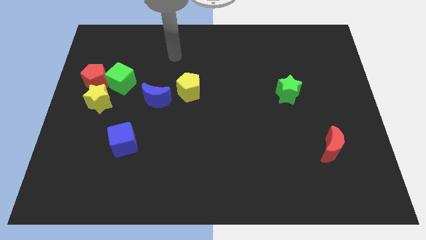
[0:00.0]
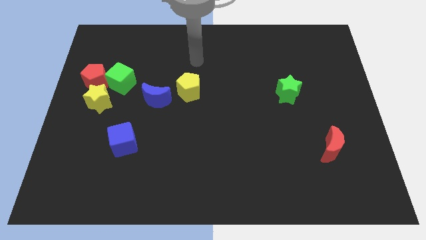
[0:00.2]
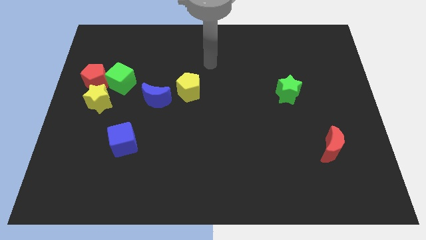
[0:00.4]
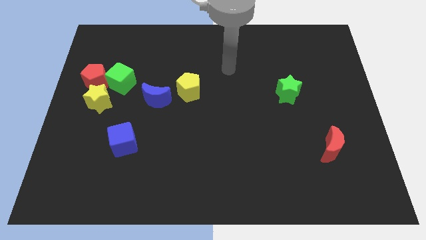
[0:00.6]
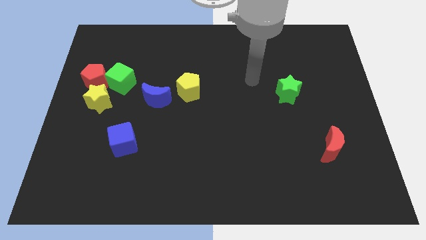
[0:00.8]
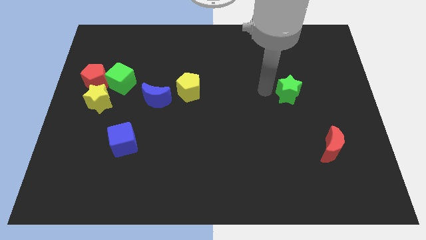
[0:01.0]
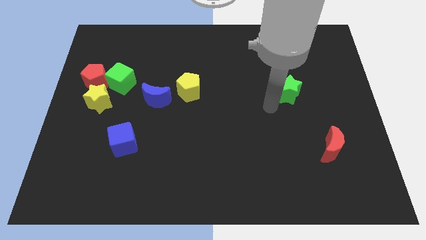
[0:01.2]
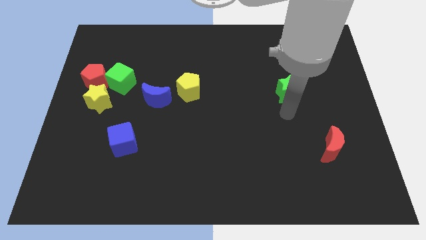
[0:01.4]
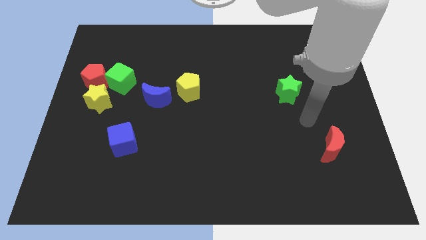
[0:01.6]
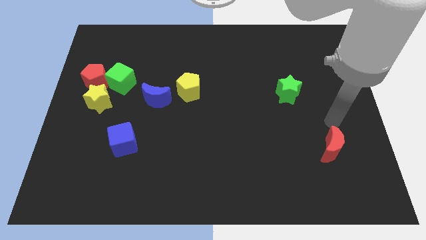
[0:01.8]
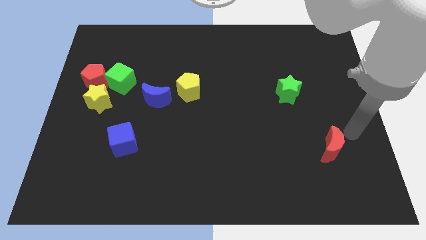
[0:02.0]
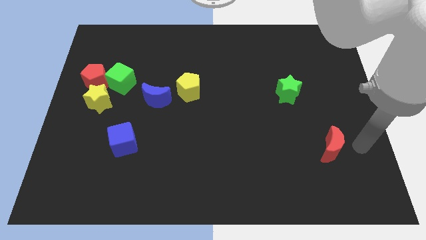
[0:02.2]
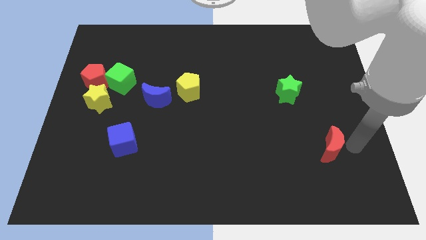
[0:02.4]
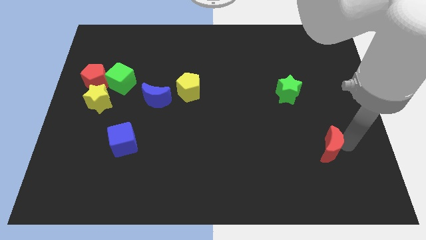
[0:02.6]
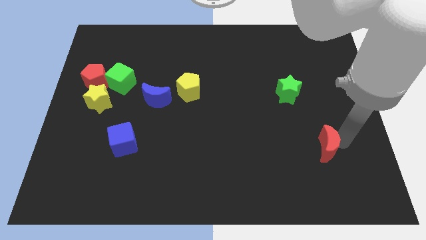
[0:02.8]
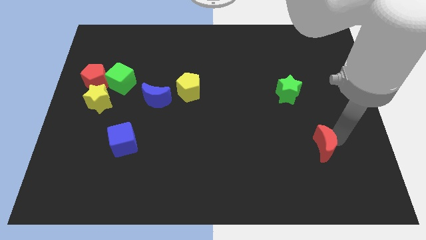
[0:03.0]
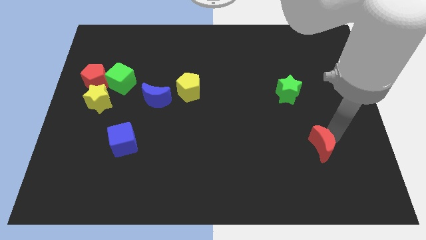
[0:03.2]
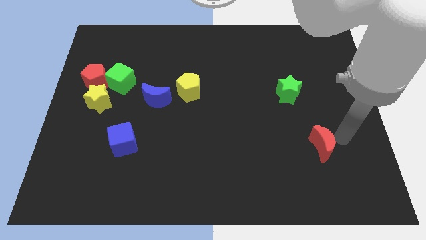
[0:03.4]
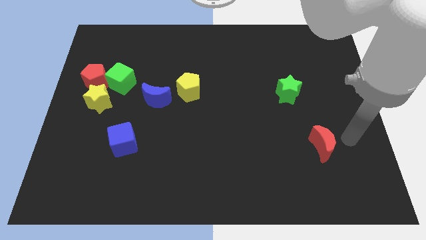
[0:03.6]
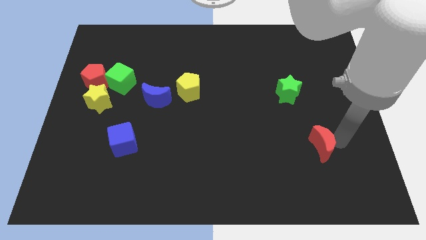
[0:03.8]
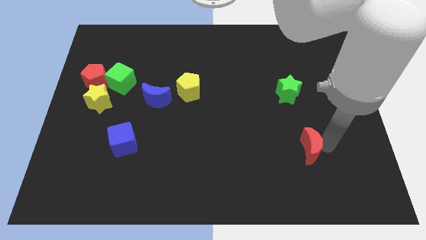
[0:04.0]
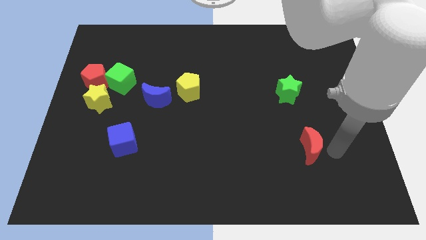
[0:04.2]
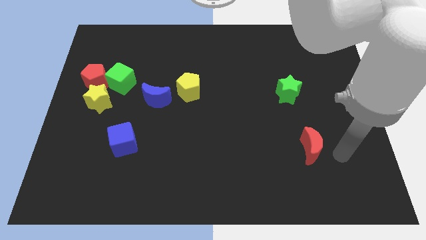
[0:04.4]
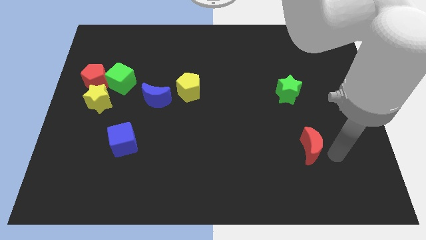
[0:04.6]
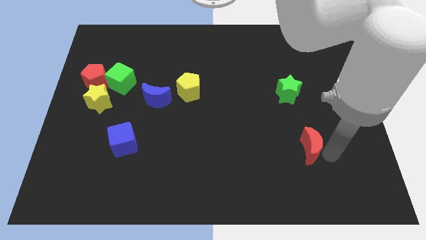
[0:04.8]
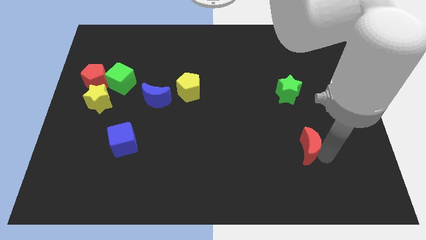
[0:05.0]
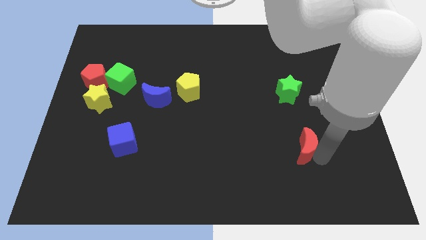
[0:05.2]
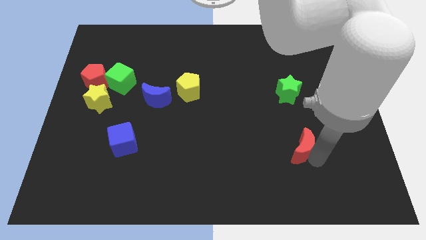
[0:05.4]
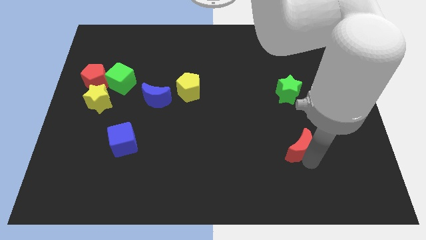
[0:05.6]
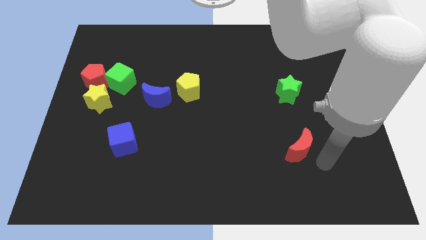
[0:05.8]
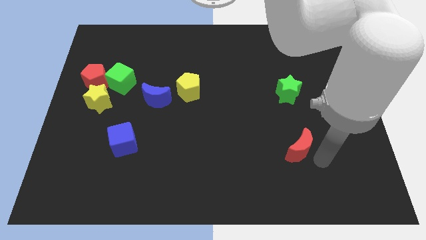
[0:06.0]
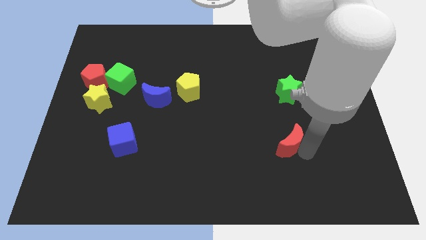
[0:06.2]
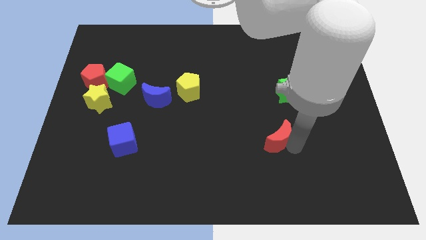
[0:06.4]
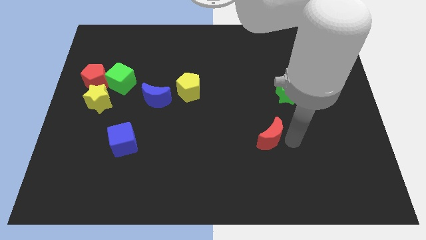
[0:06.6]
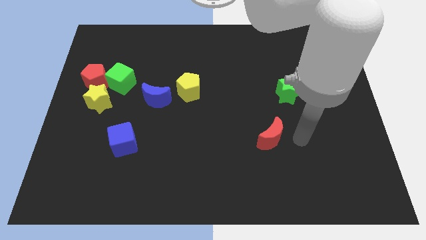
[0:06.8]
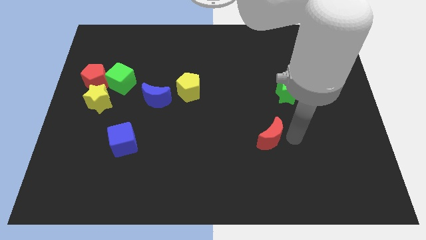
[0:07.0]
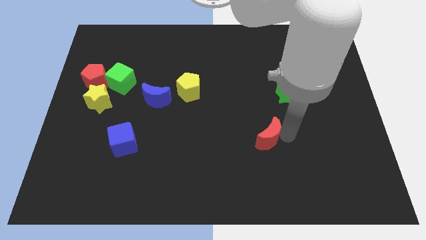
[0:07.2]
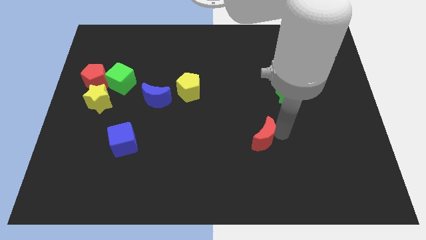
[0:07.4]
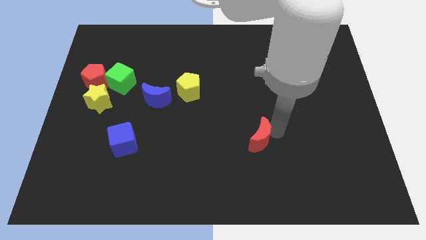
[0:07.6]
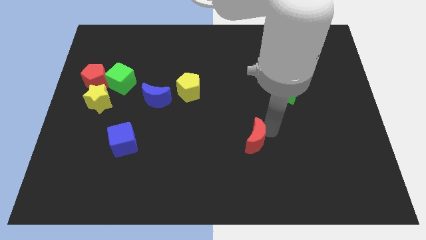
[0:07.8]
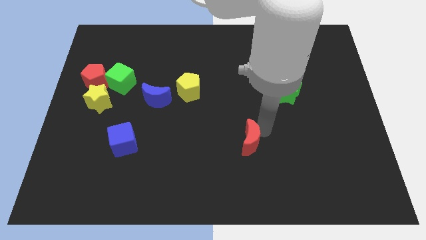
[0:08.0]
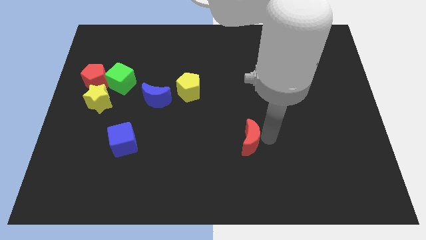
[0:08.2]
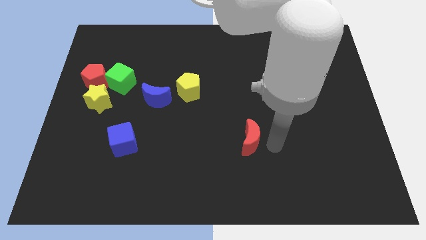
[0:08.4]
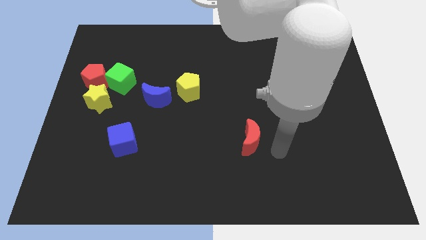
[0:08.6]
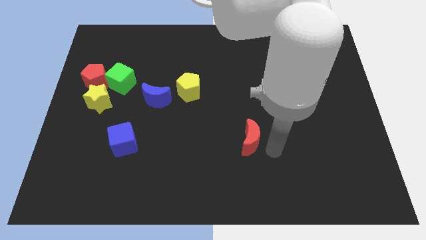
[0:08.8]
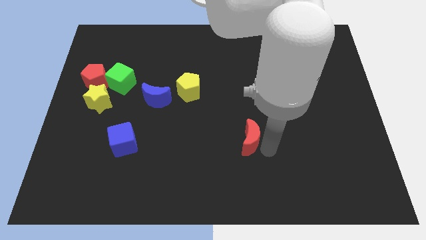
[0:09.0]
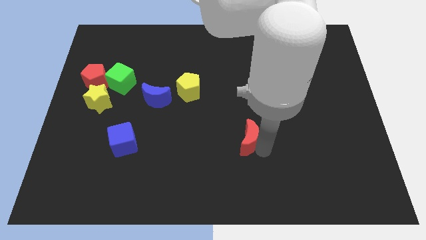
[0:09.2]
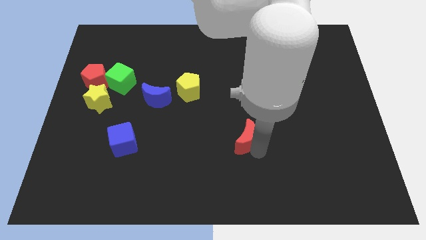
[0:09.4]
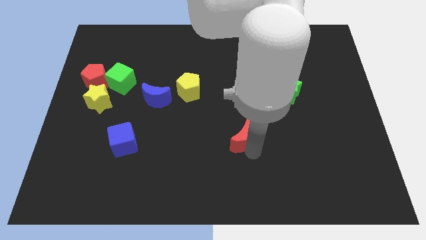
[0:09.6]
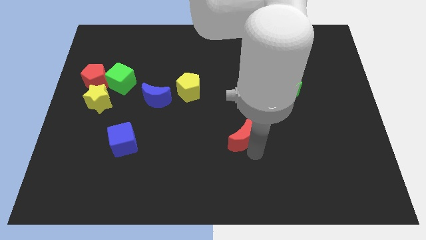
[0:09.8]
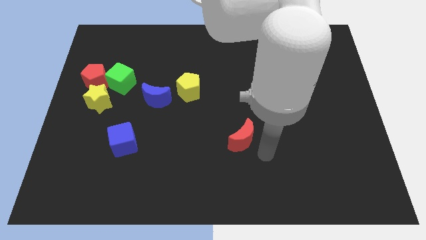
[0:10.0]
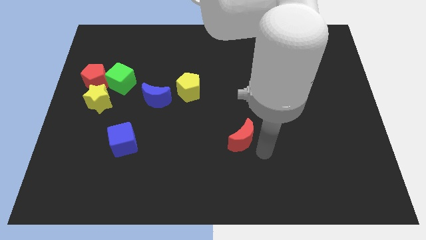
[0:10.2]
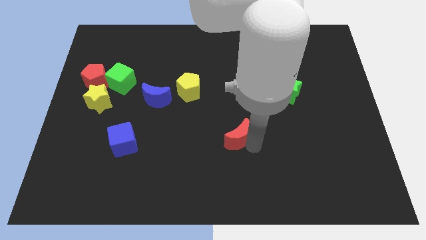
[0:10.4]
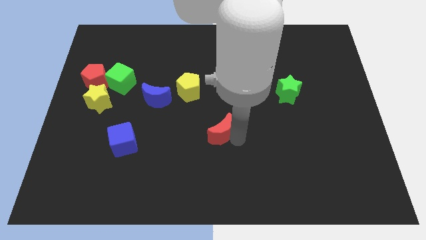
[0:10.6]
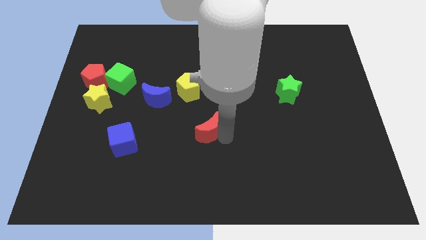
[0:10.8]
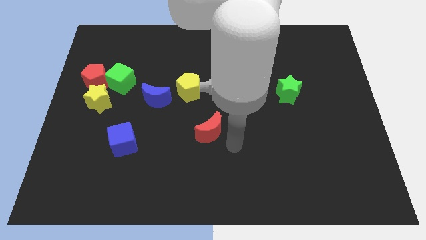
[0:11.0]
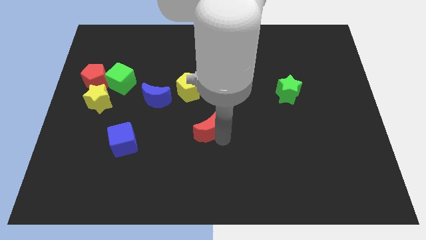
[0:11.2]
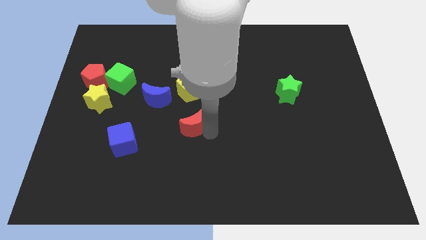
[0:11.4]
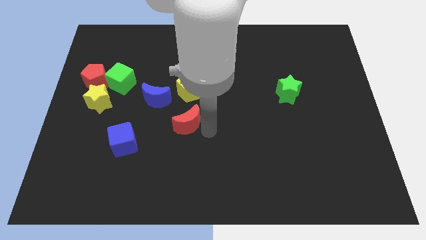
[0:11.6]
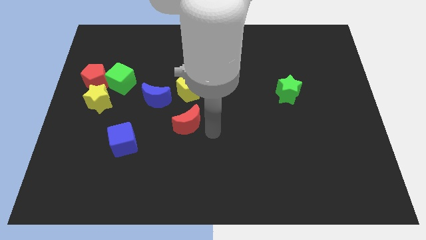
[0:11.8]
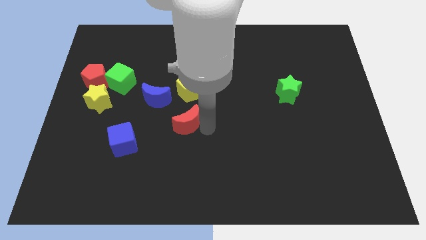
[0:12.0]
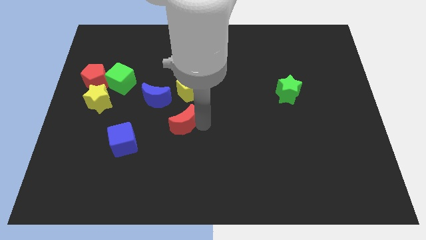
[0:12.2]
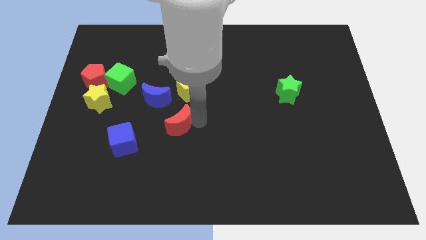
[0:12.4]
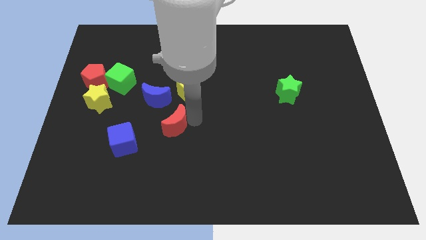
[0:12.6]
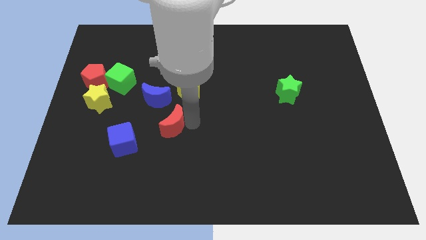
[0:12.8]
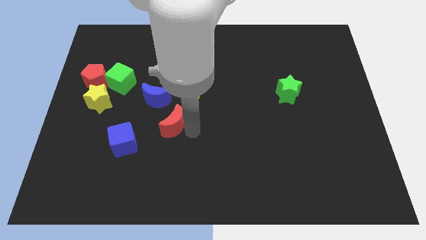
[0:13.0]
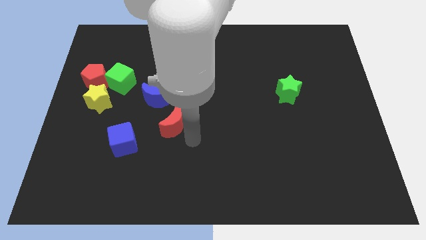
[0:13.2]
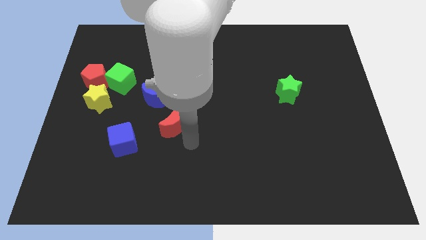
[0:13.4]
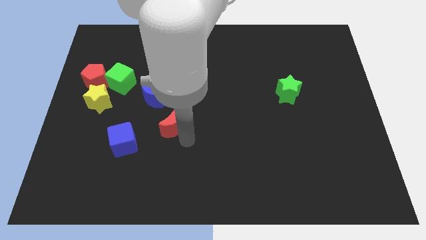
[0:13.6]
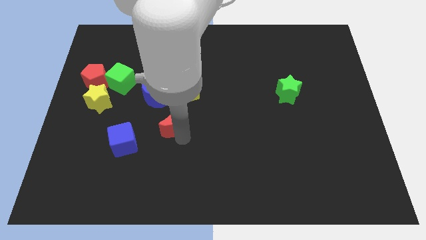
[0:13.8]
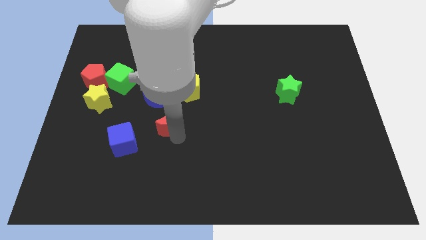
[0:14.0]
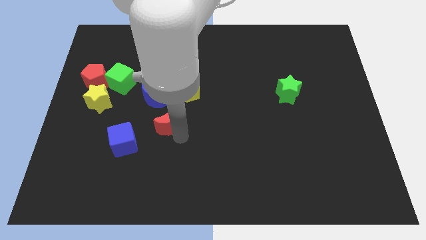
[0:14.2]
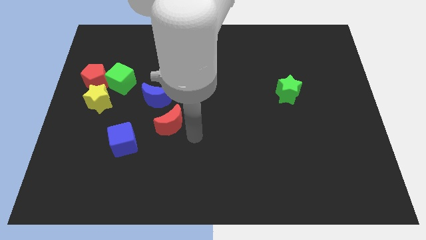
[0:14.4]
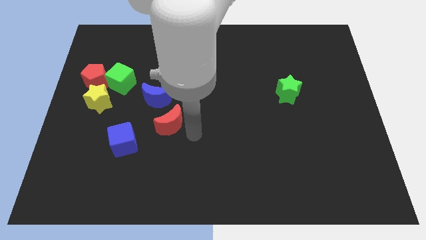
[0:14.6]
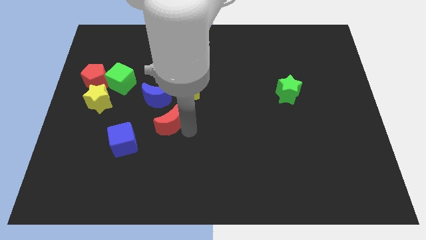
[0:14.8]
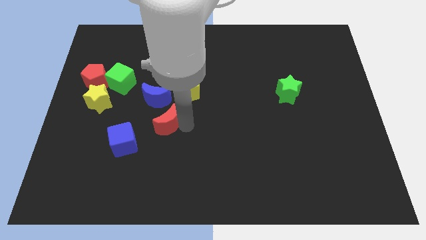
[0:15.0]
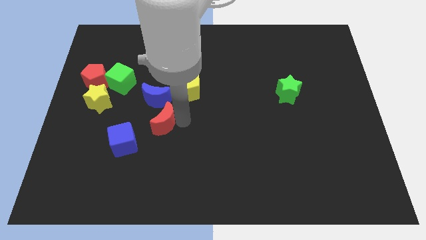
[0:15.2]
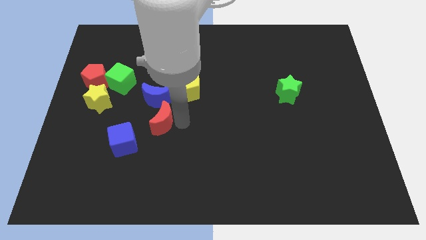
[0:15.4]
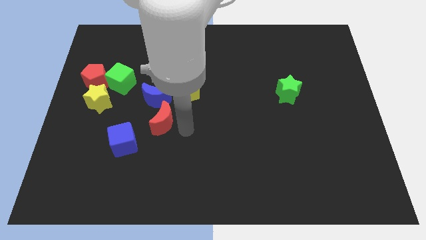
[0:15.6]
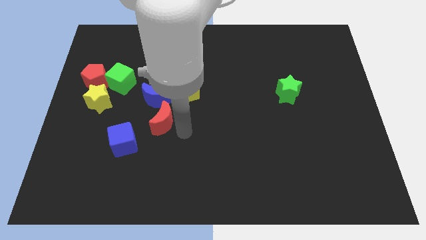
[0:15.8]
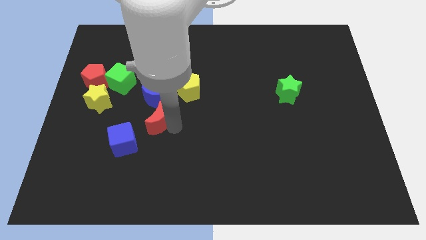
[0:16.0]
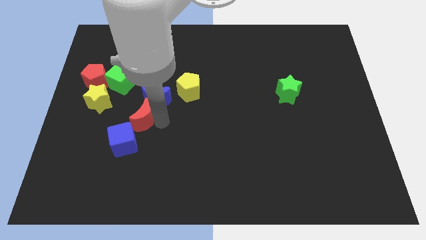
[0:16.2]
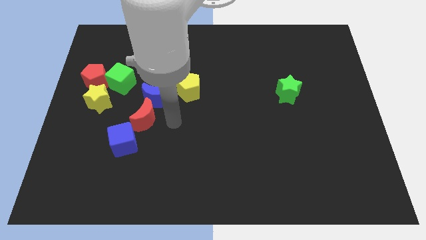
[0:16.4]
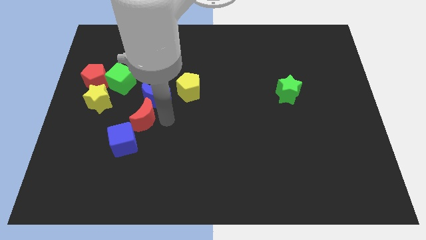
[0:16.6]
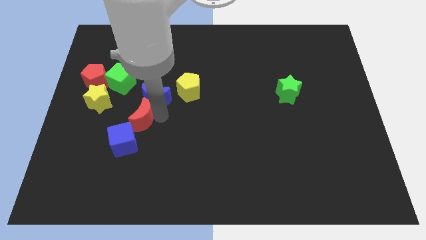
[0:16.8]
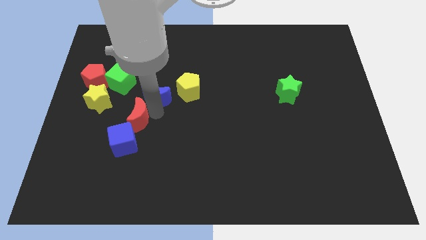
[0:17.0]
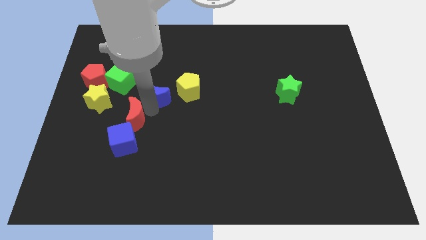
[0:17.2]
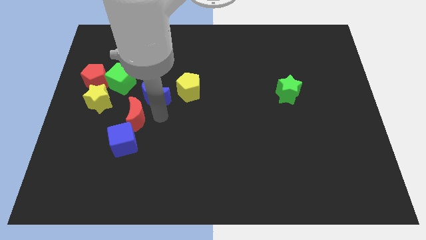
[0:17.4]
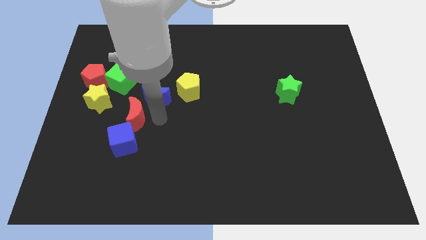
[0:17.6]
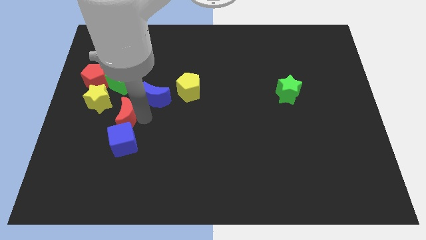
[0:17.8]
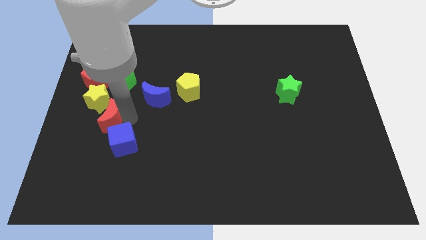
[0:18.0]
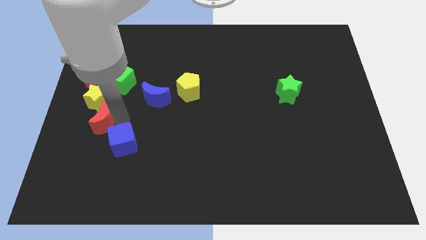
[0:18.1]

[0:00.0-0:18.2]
push the red moon to the bottom side of the red pentagon
